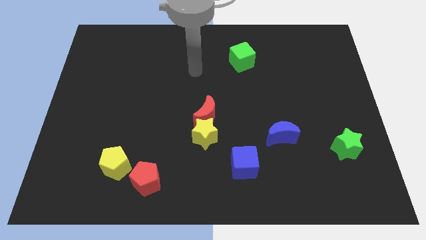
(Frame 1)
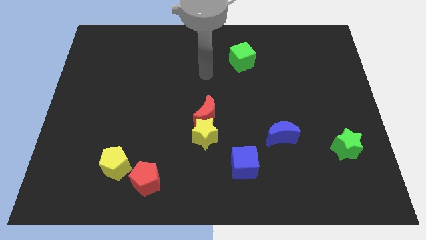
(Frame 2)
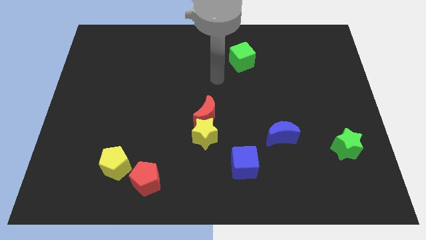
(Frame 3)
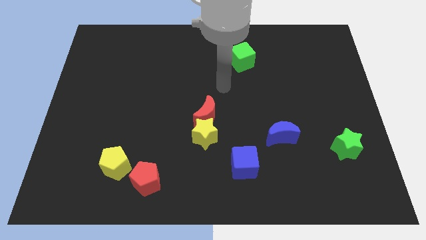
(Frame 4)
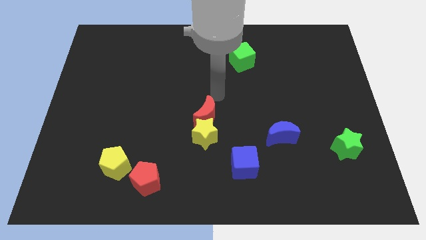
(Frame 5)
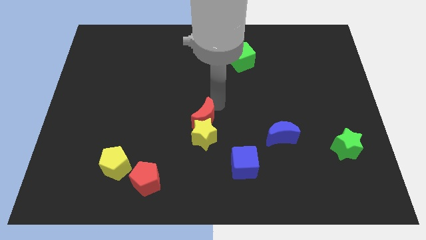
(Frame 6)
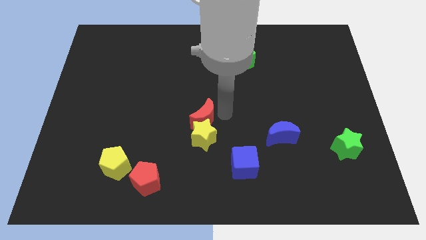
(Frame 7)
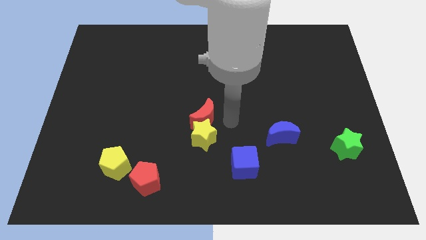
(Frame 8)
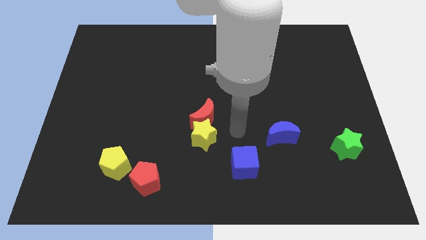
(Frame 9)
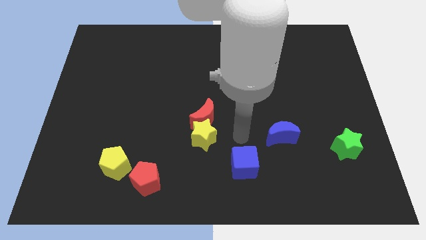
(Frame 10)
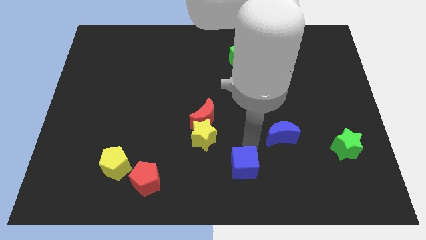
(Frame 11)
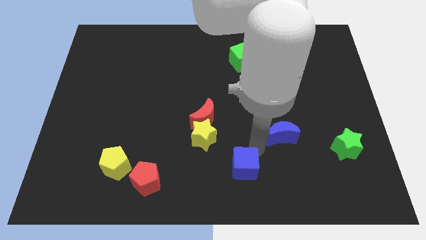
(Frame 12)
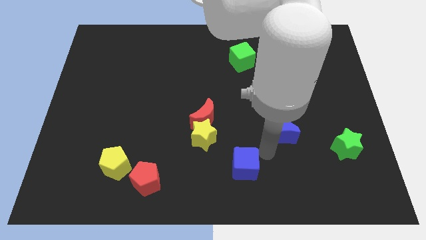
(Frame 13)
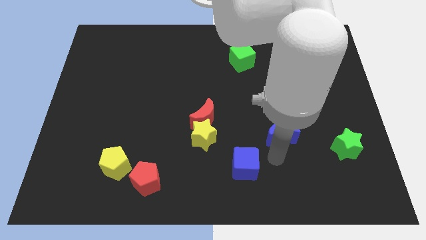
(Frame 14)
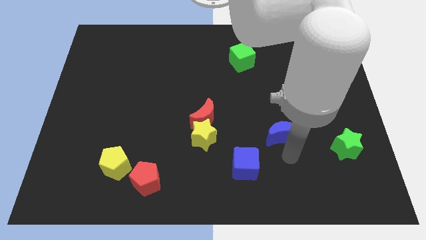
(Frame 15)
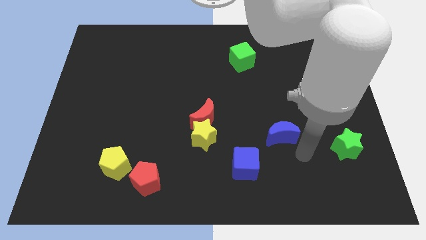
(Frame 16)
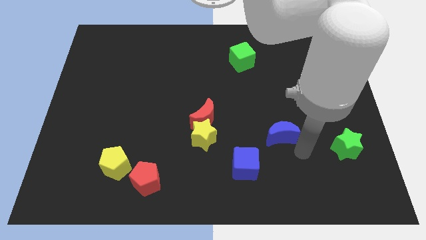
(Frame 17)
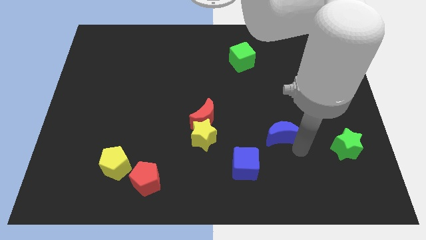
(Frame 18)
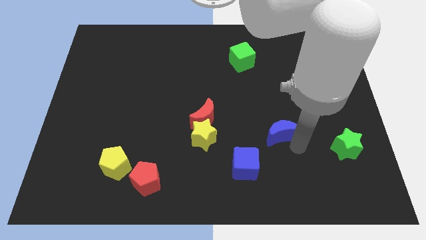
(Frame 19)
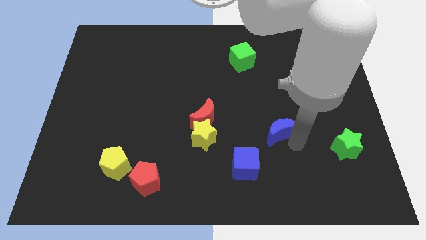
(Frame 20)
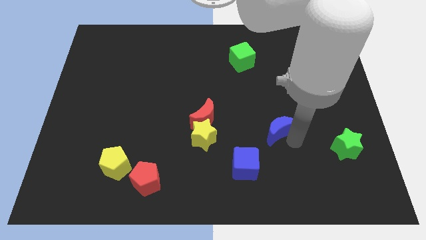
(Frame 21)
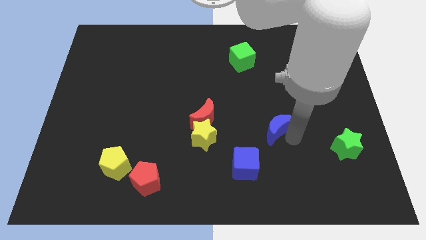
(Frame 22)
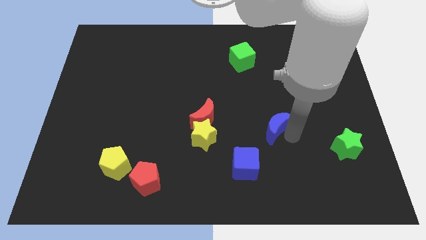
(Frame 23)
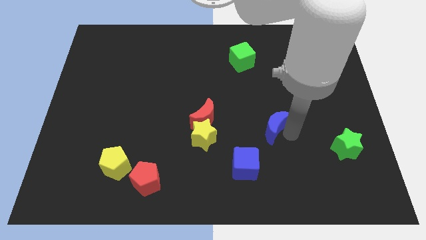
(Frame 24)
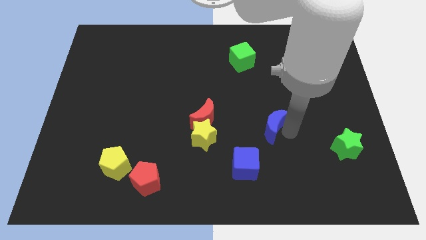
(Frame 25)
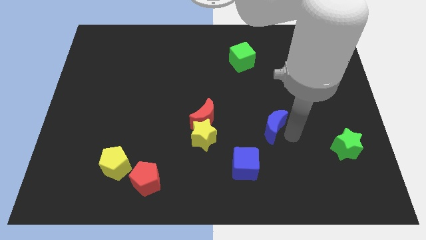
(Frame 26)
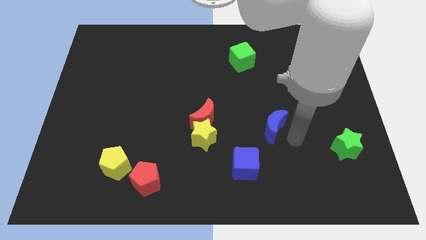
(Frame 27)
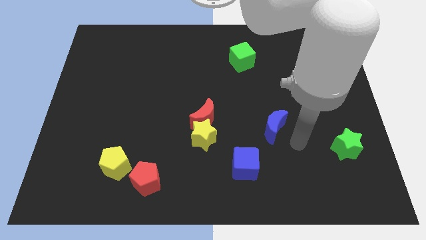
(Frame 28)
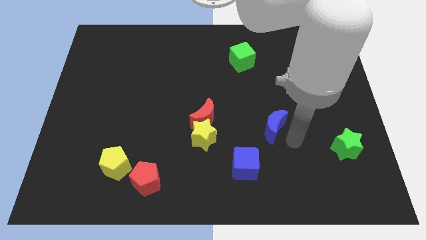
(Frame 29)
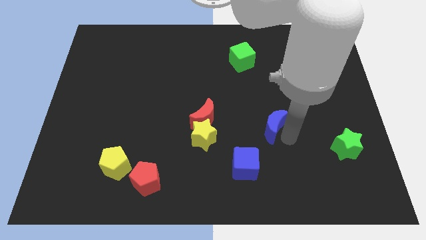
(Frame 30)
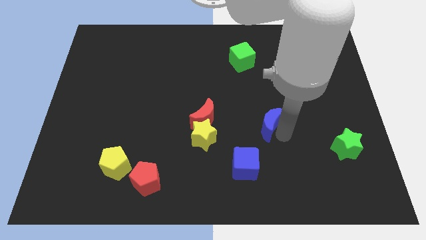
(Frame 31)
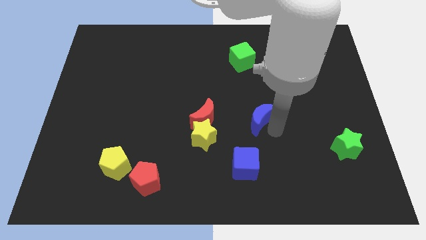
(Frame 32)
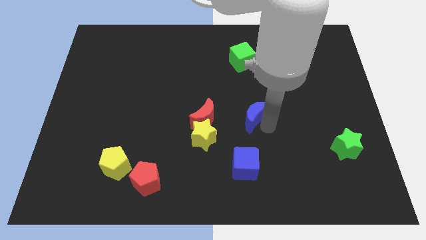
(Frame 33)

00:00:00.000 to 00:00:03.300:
slightly move the blue moon diagonally upwards and to the left

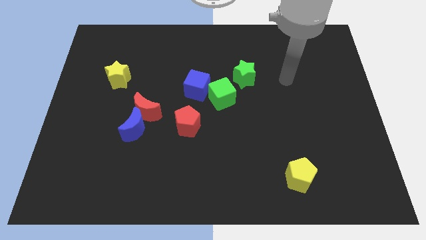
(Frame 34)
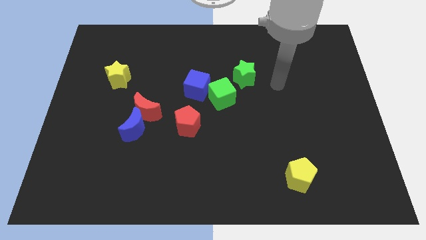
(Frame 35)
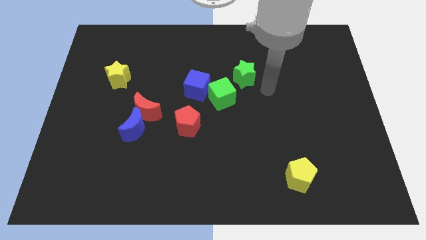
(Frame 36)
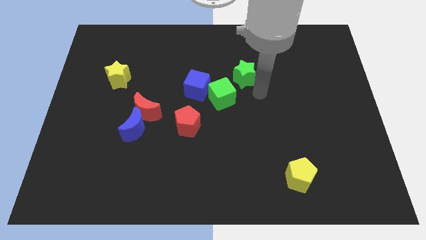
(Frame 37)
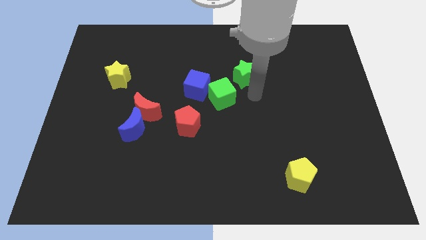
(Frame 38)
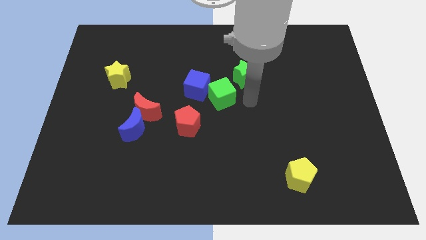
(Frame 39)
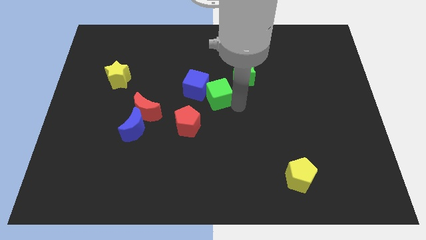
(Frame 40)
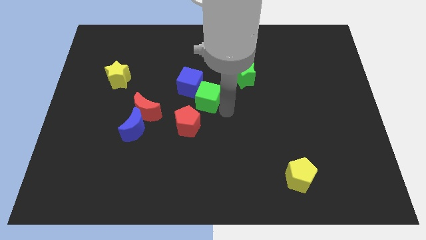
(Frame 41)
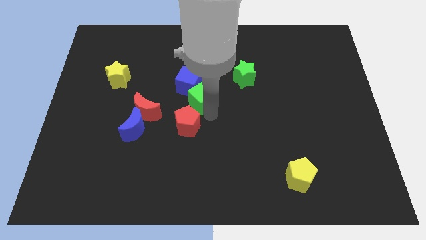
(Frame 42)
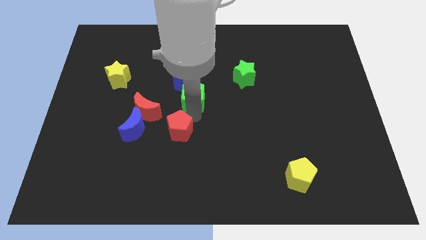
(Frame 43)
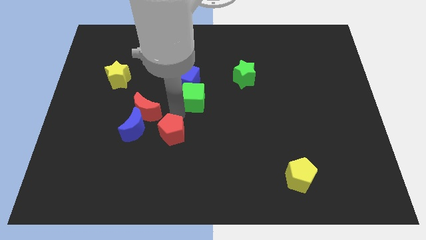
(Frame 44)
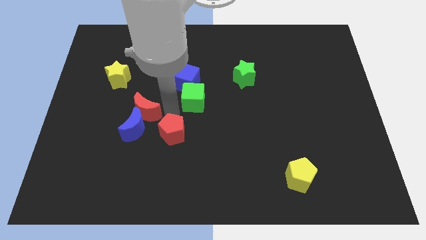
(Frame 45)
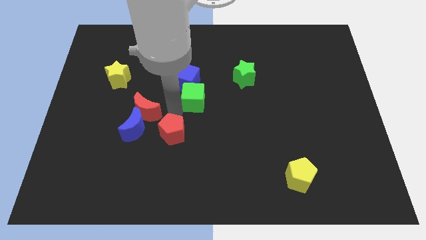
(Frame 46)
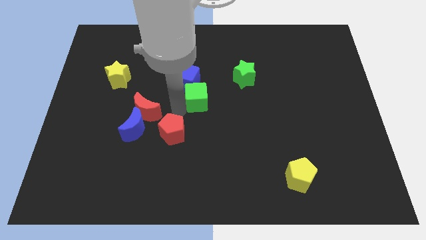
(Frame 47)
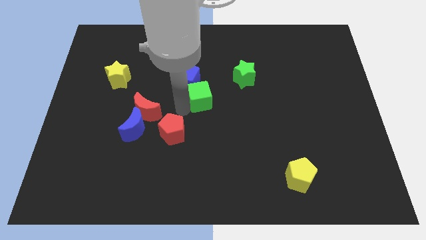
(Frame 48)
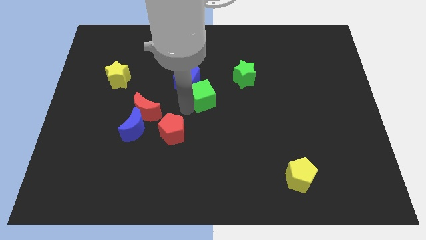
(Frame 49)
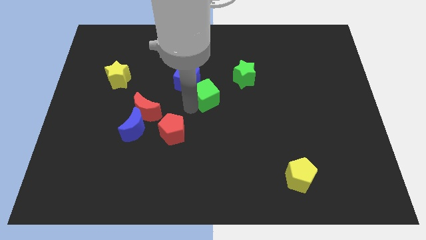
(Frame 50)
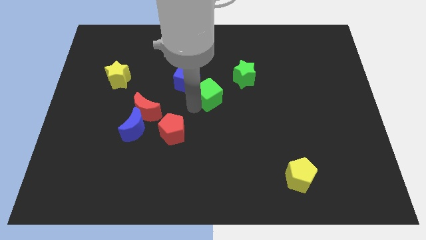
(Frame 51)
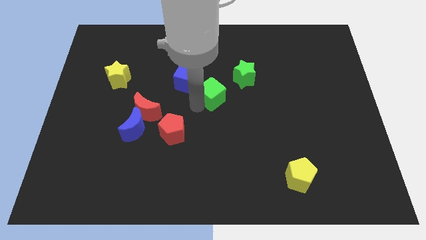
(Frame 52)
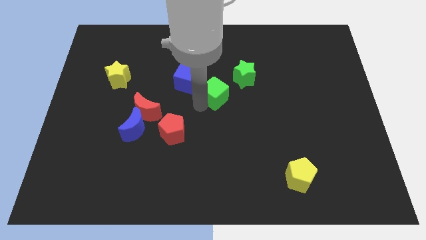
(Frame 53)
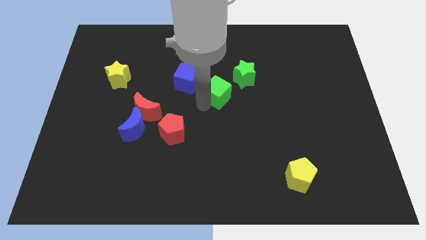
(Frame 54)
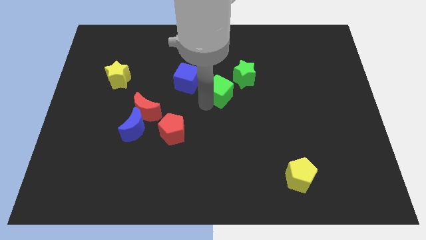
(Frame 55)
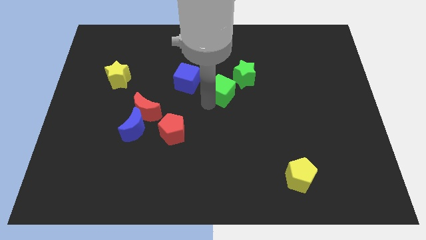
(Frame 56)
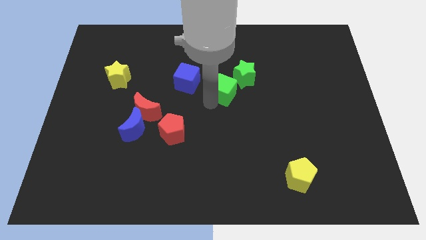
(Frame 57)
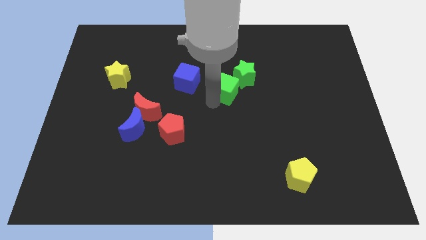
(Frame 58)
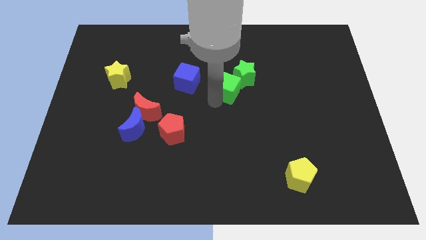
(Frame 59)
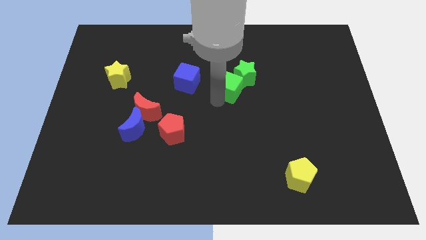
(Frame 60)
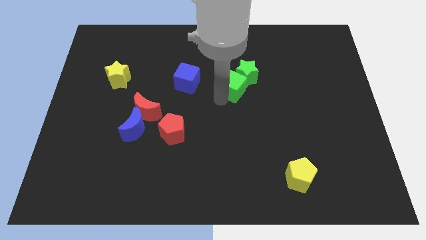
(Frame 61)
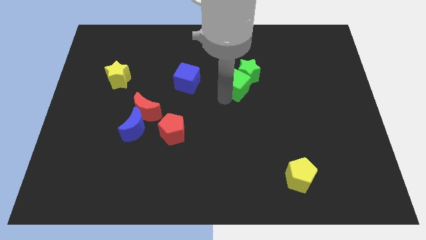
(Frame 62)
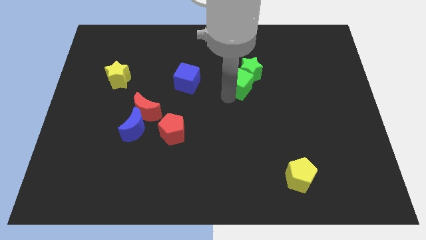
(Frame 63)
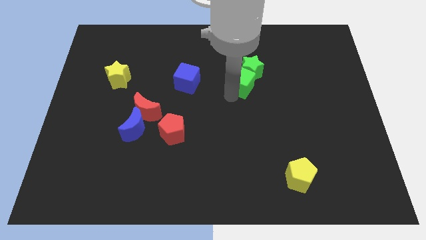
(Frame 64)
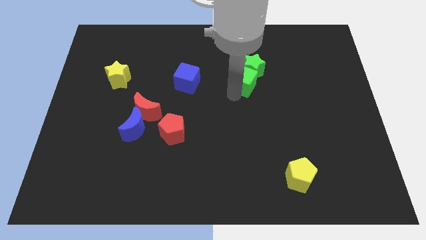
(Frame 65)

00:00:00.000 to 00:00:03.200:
push the green cube upwards and then right a little bit

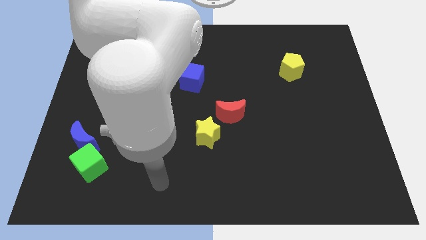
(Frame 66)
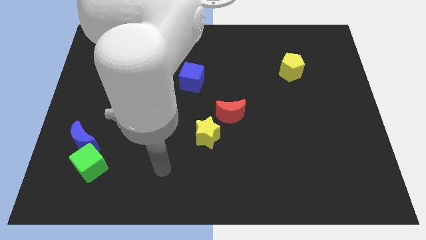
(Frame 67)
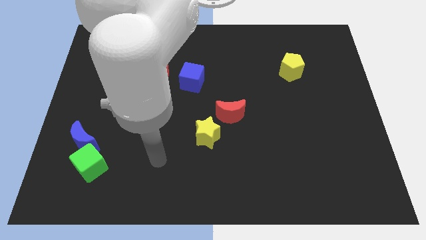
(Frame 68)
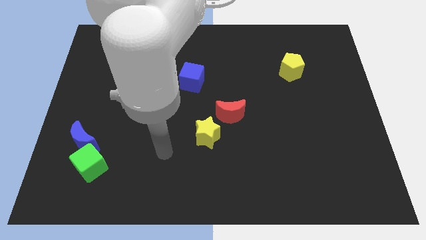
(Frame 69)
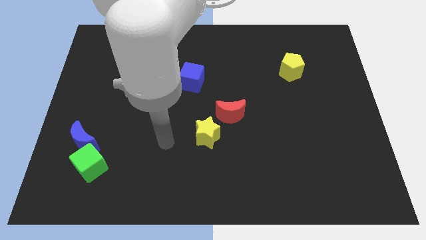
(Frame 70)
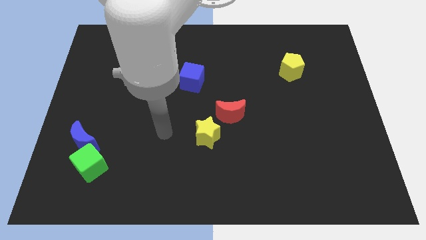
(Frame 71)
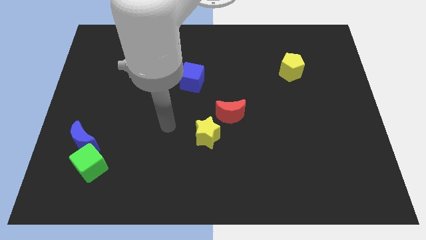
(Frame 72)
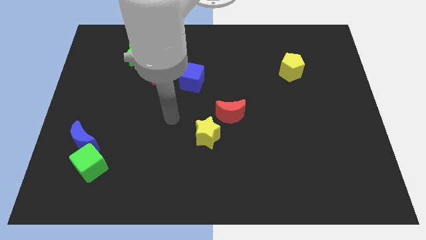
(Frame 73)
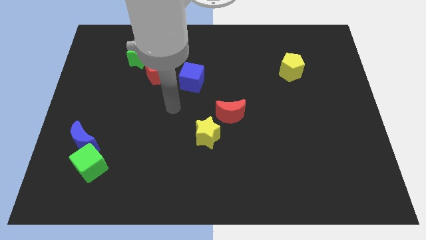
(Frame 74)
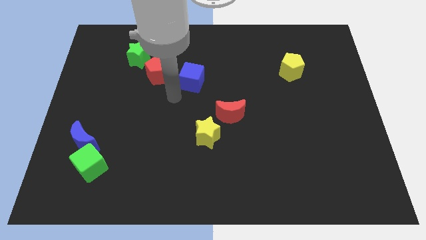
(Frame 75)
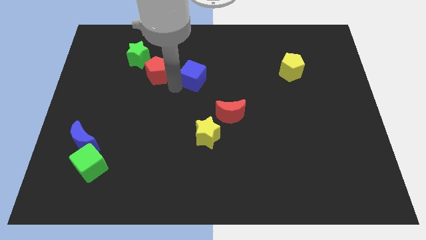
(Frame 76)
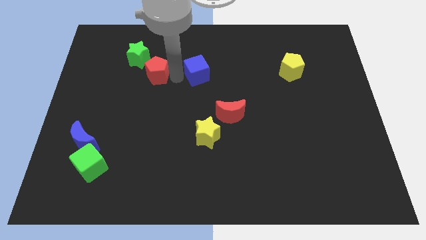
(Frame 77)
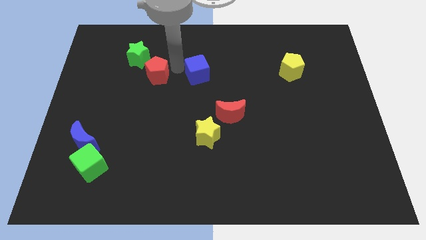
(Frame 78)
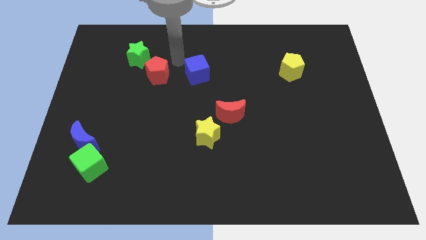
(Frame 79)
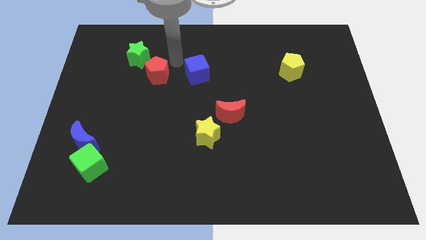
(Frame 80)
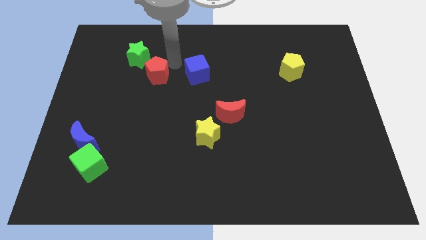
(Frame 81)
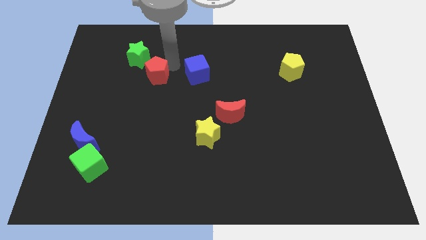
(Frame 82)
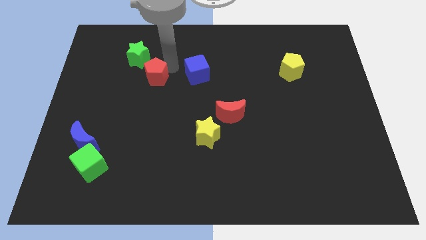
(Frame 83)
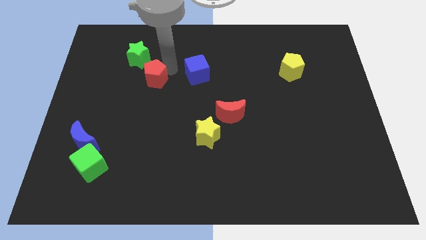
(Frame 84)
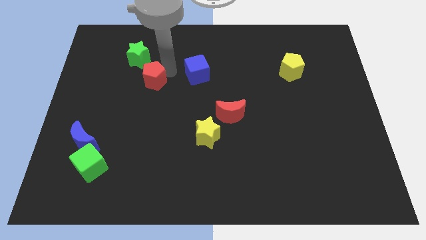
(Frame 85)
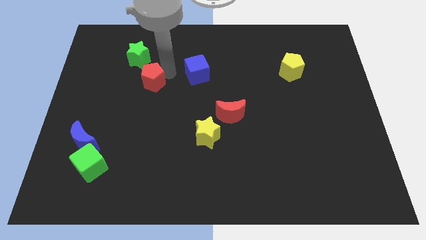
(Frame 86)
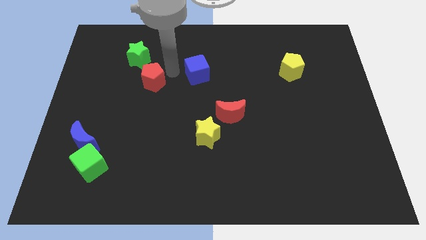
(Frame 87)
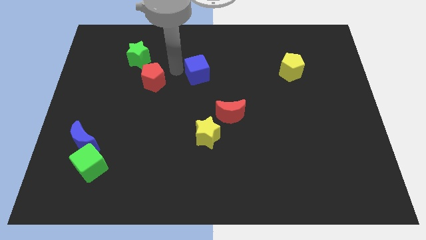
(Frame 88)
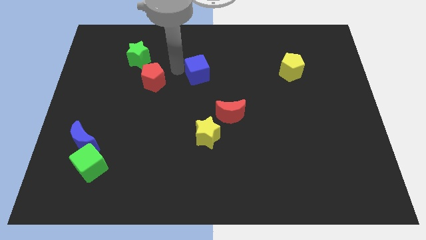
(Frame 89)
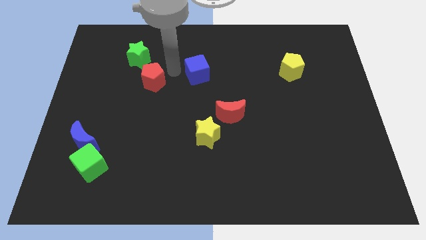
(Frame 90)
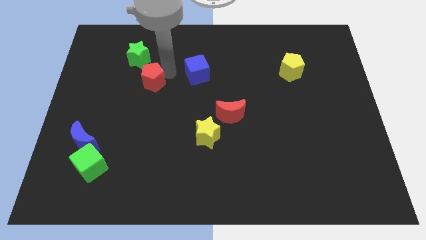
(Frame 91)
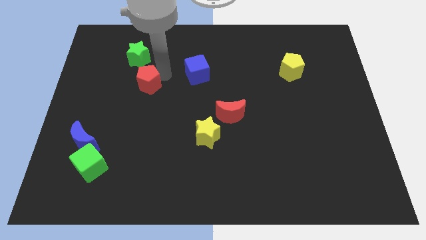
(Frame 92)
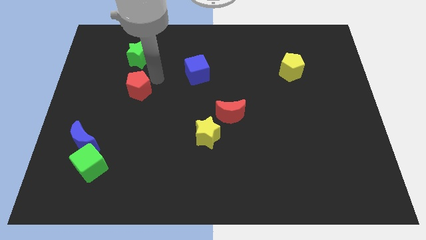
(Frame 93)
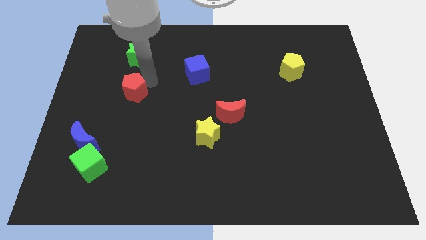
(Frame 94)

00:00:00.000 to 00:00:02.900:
slide the red pentagon diagonally down and left a bit
